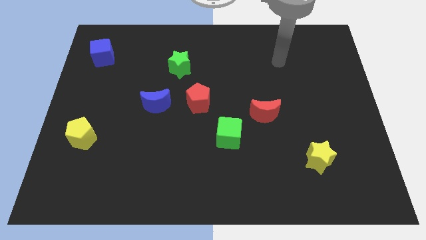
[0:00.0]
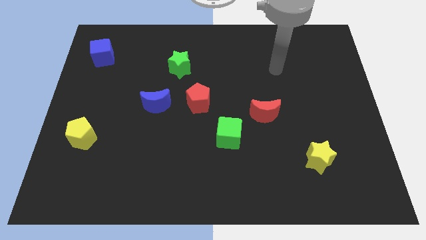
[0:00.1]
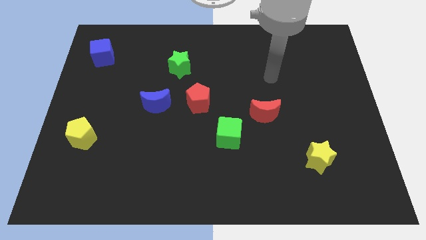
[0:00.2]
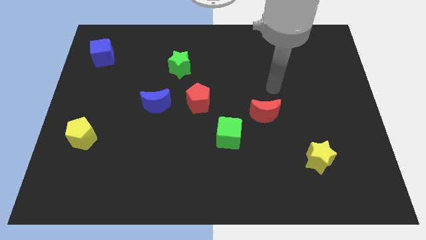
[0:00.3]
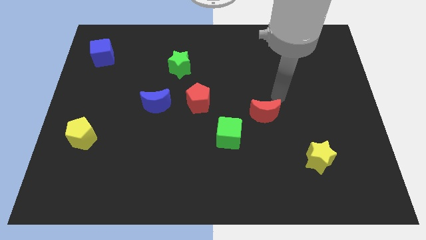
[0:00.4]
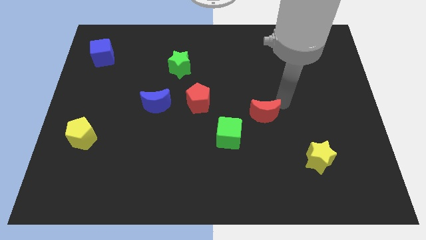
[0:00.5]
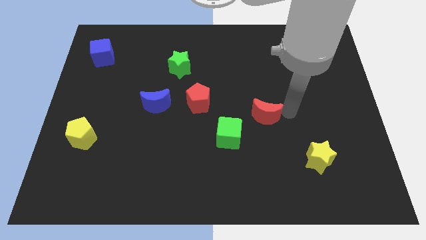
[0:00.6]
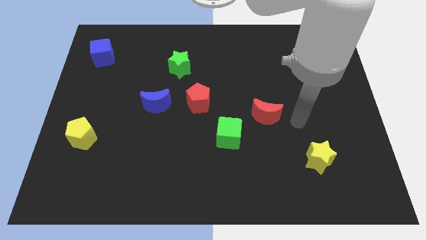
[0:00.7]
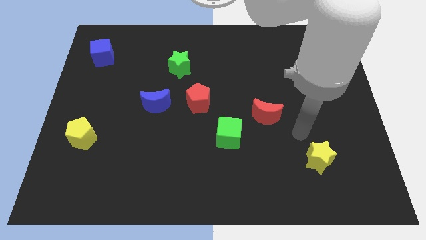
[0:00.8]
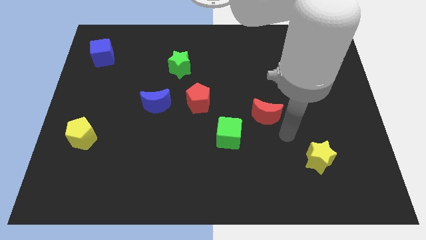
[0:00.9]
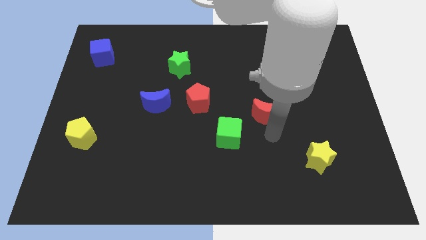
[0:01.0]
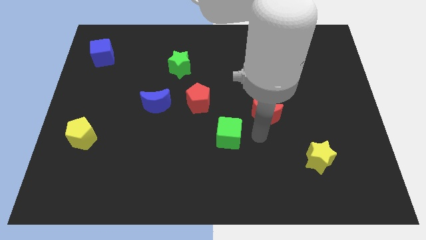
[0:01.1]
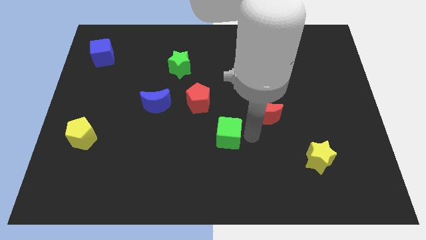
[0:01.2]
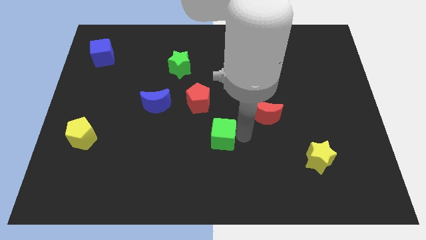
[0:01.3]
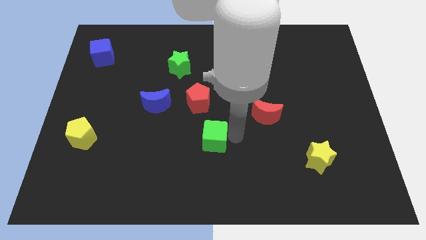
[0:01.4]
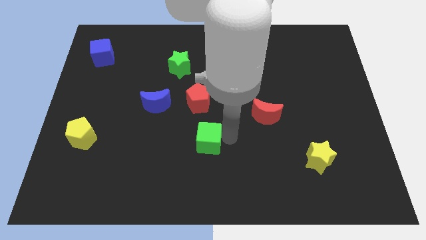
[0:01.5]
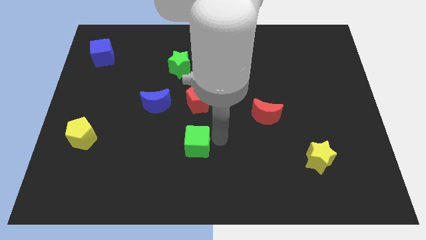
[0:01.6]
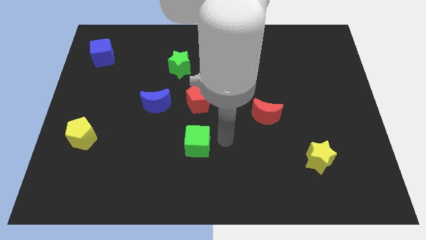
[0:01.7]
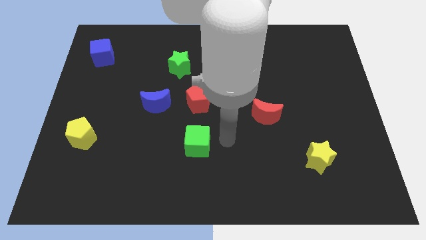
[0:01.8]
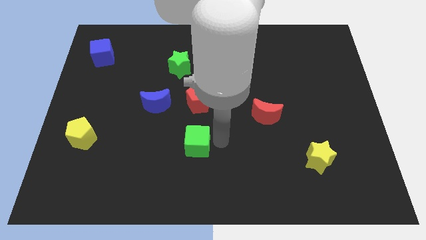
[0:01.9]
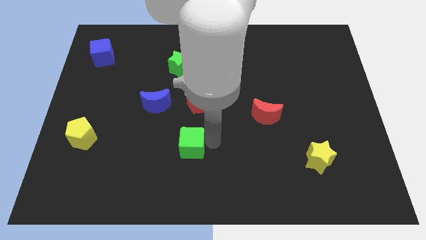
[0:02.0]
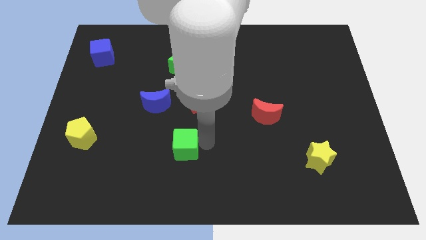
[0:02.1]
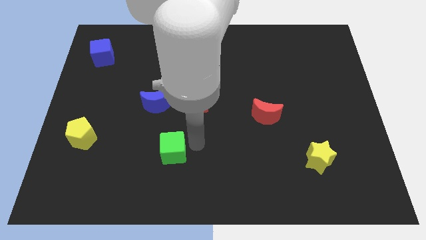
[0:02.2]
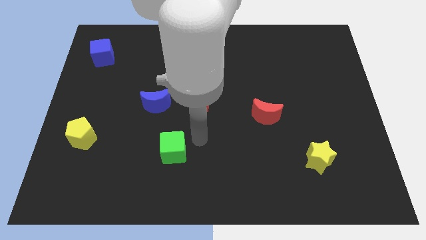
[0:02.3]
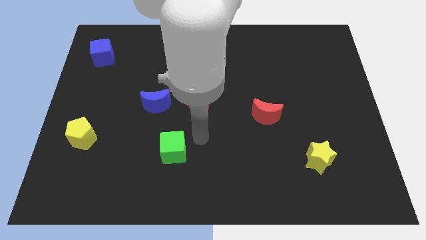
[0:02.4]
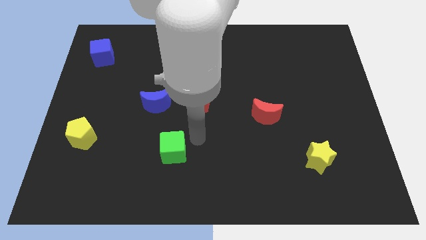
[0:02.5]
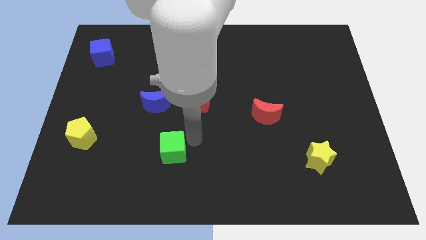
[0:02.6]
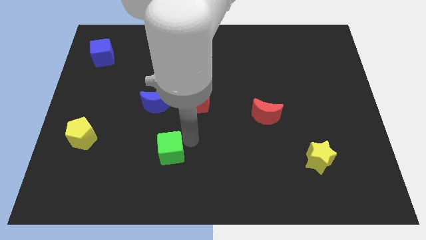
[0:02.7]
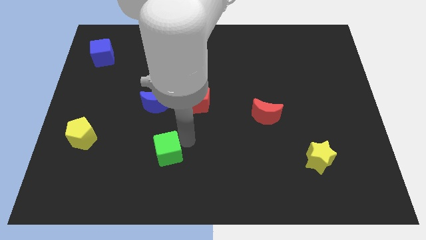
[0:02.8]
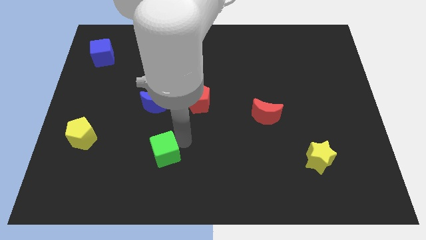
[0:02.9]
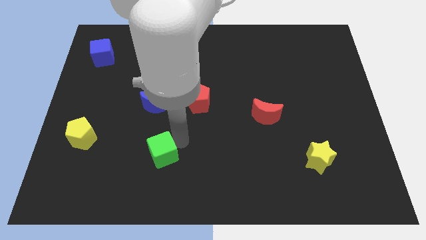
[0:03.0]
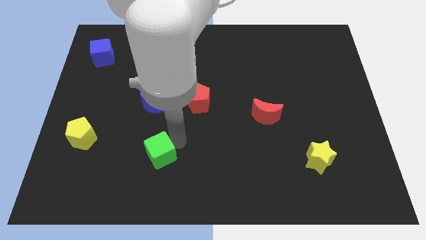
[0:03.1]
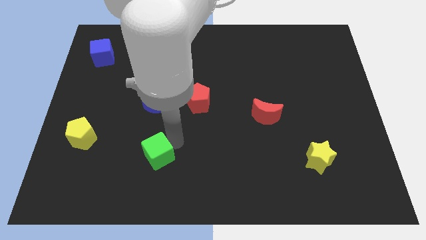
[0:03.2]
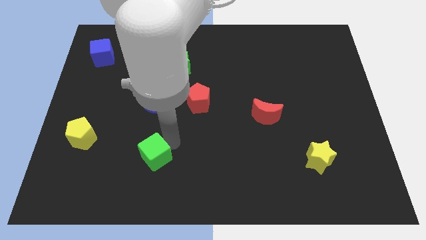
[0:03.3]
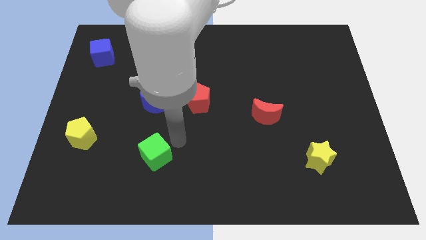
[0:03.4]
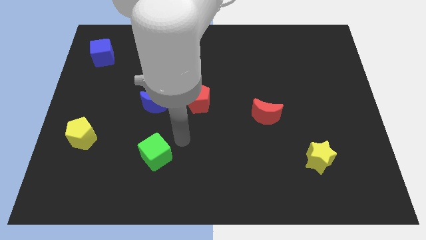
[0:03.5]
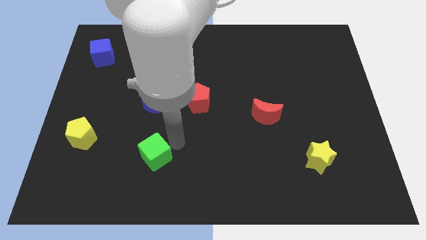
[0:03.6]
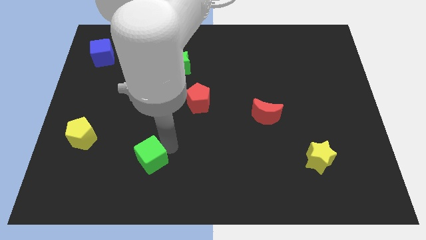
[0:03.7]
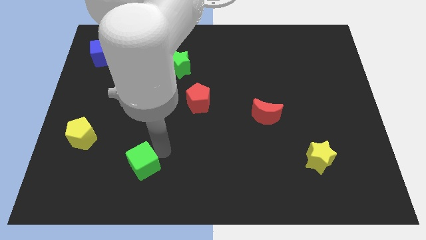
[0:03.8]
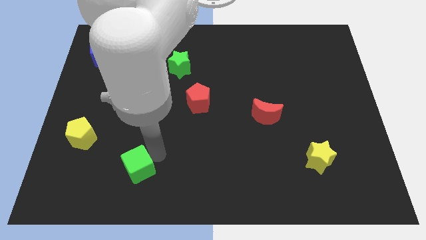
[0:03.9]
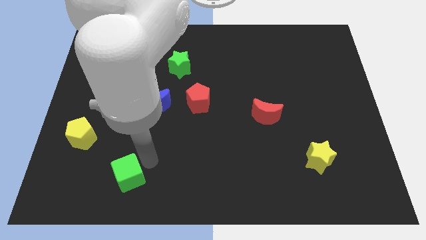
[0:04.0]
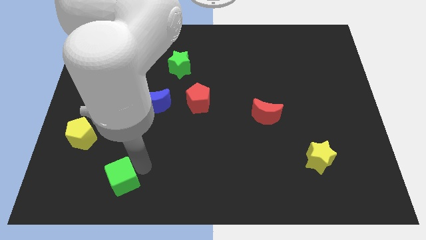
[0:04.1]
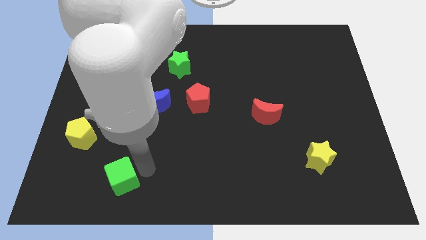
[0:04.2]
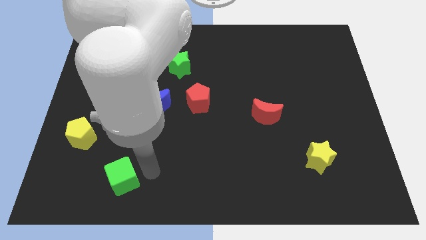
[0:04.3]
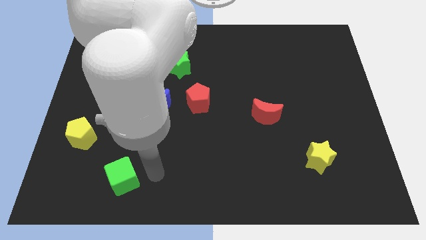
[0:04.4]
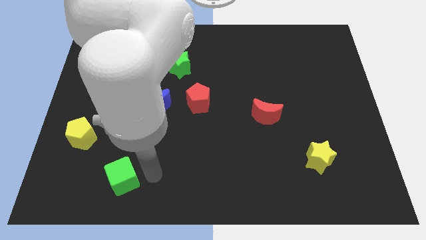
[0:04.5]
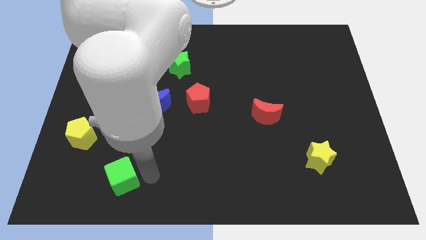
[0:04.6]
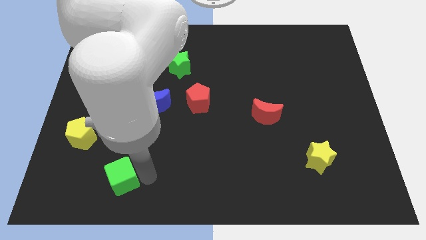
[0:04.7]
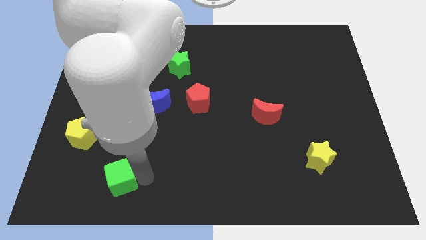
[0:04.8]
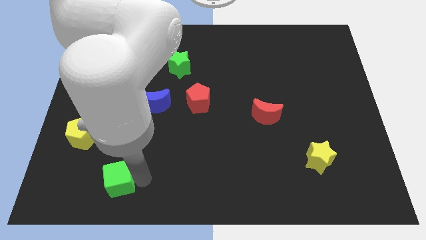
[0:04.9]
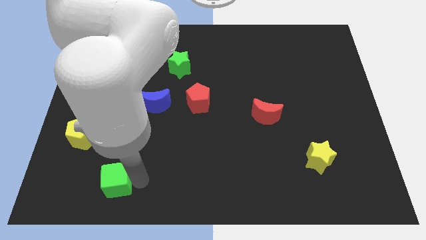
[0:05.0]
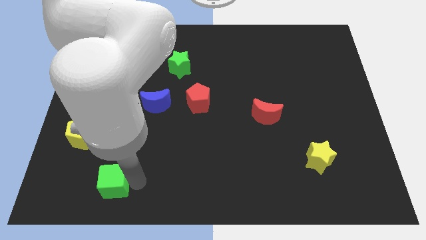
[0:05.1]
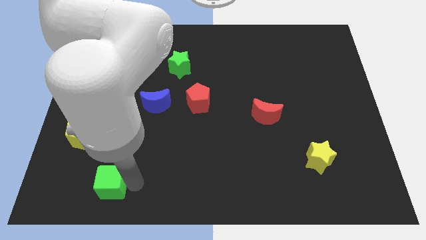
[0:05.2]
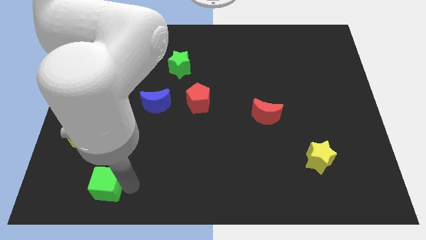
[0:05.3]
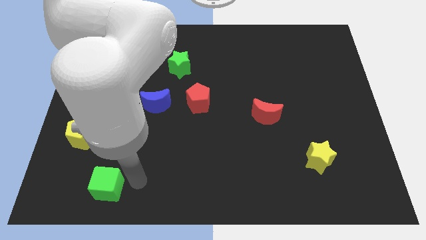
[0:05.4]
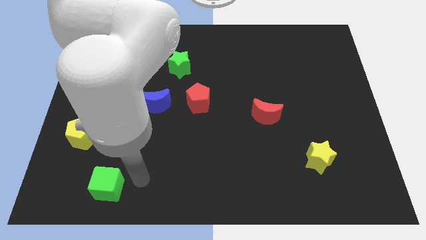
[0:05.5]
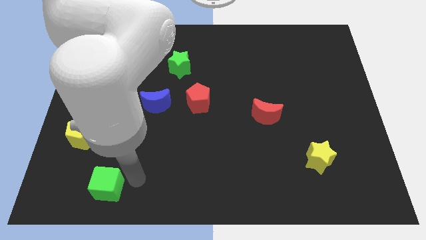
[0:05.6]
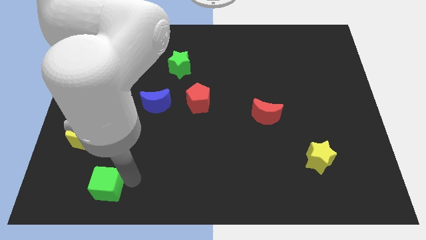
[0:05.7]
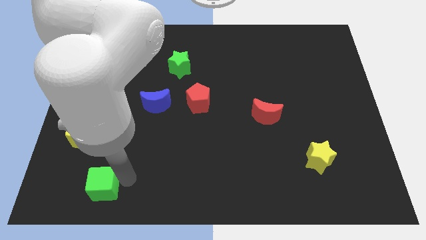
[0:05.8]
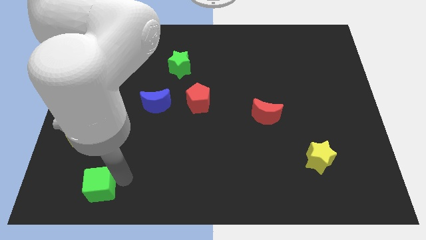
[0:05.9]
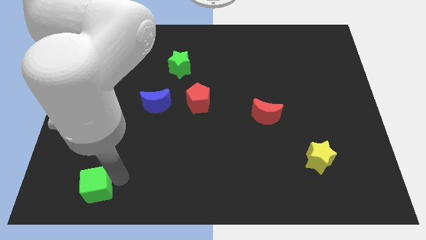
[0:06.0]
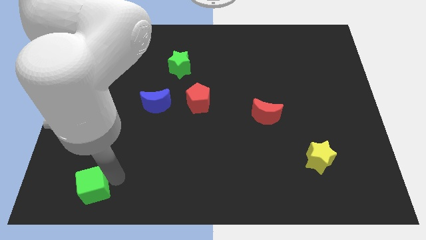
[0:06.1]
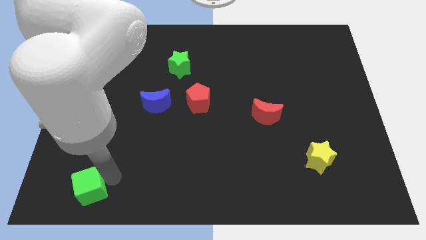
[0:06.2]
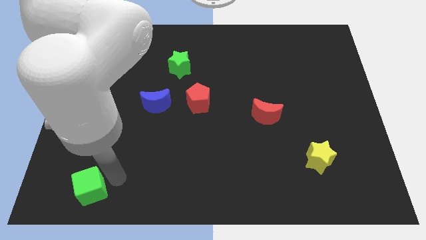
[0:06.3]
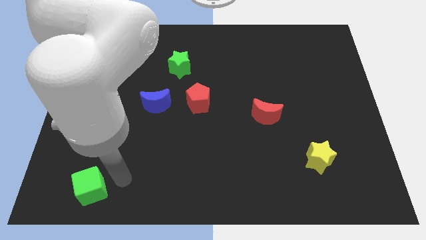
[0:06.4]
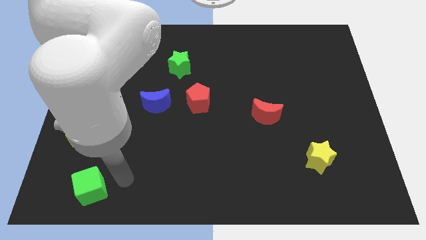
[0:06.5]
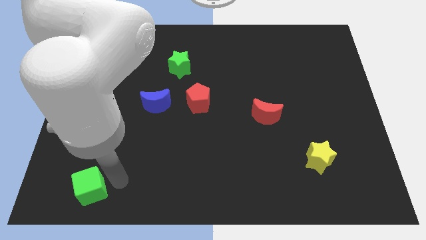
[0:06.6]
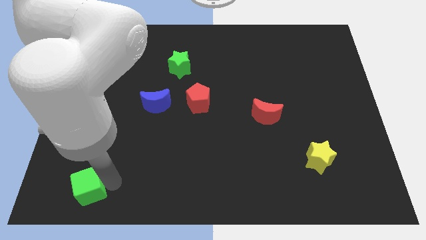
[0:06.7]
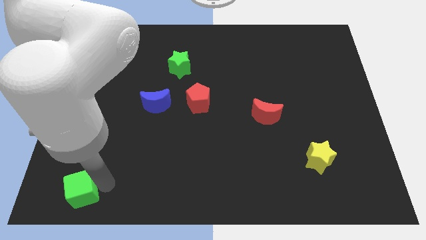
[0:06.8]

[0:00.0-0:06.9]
move the green cube to the lower left corner
